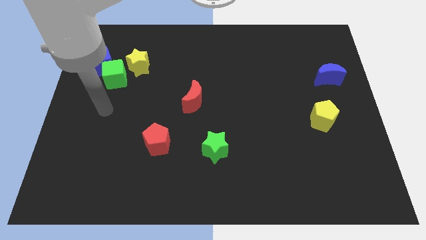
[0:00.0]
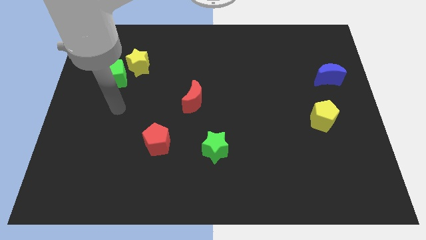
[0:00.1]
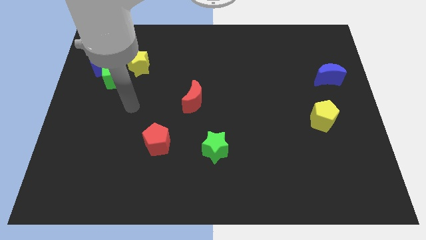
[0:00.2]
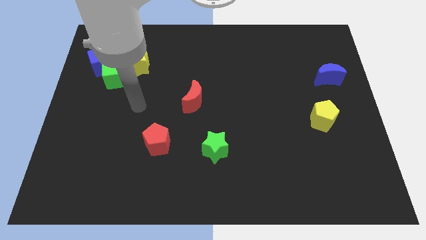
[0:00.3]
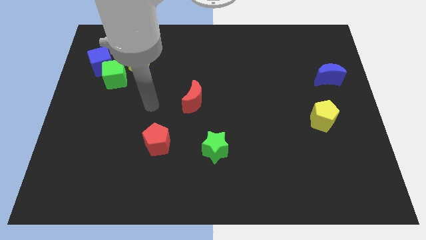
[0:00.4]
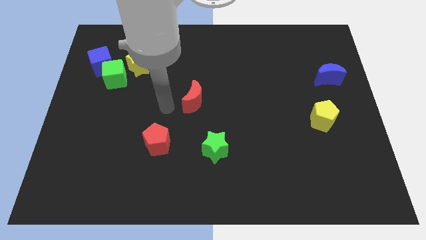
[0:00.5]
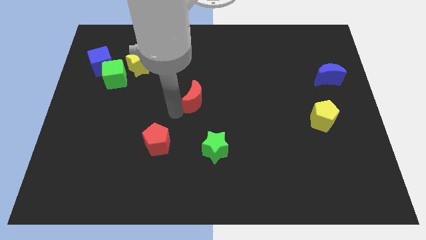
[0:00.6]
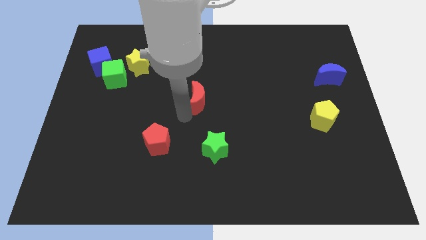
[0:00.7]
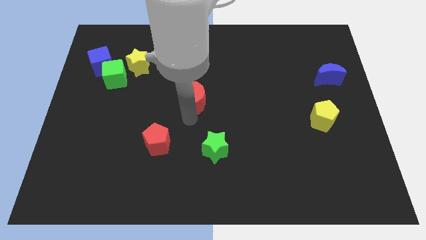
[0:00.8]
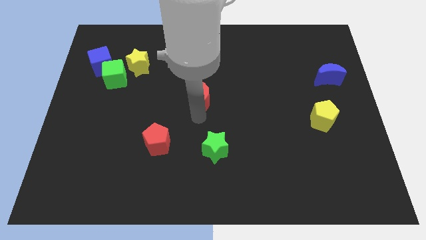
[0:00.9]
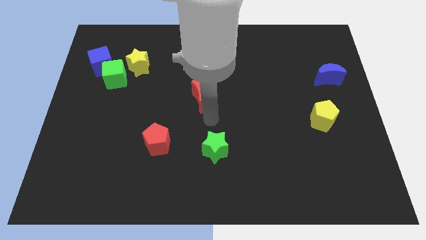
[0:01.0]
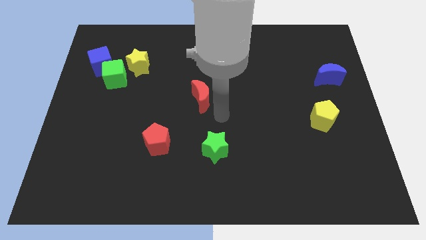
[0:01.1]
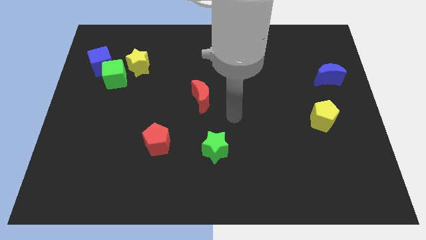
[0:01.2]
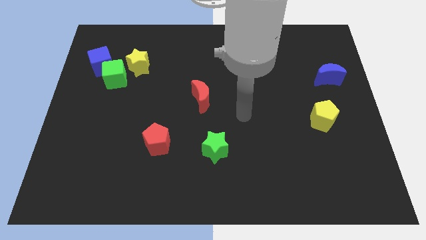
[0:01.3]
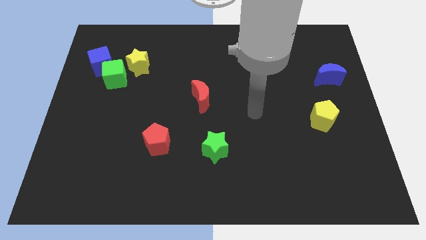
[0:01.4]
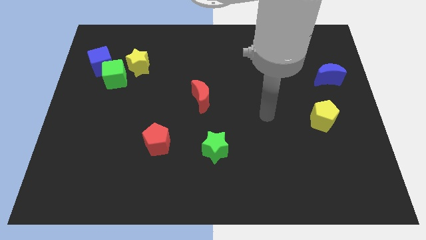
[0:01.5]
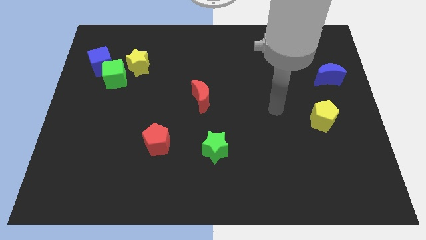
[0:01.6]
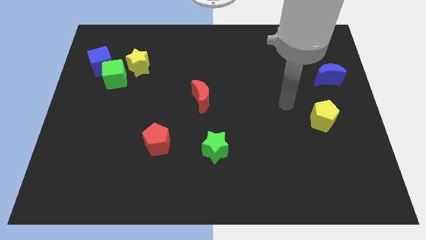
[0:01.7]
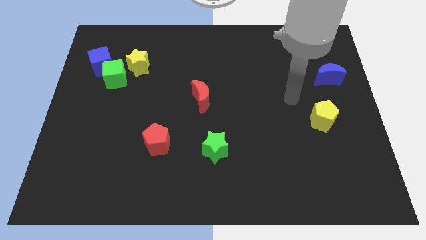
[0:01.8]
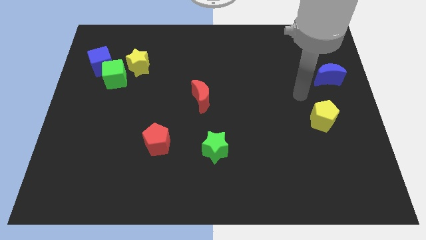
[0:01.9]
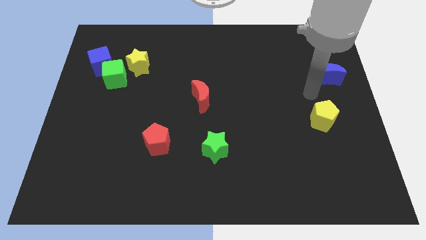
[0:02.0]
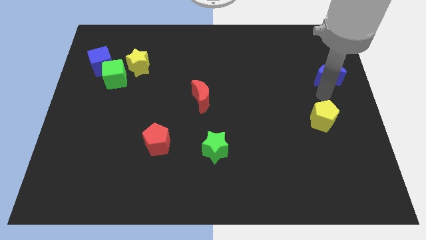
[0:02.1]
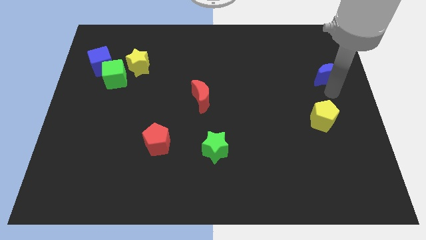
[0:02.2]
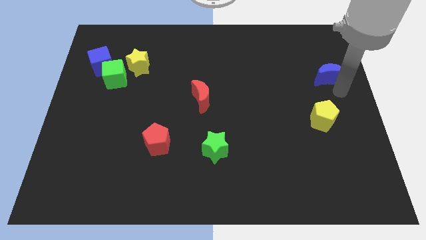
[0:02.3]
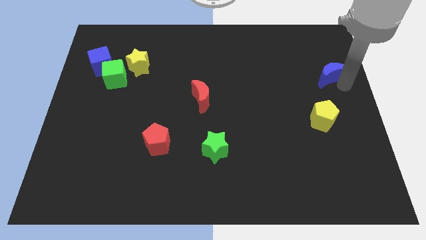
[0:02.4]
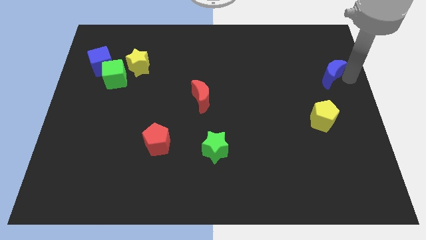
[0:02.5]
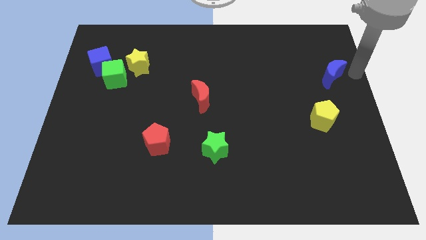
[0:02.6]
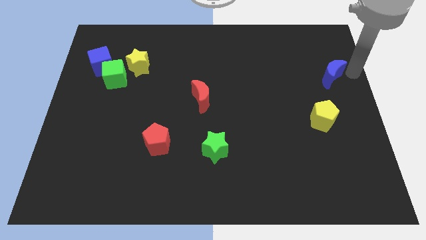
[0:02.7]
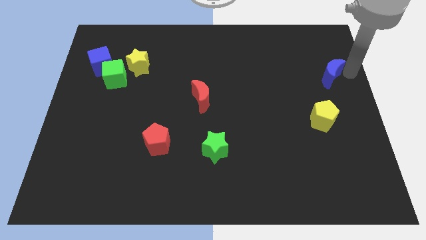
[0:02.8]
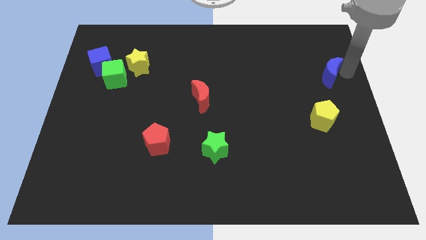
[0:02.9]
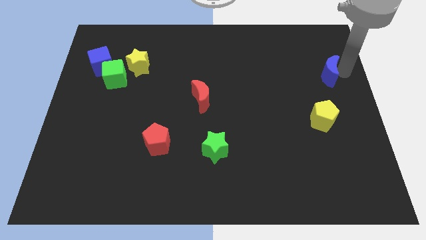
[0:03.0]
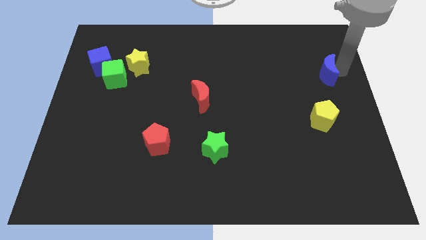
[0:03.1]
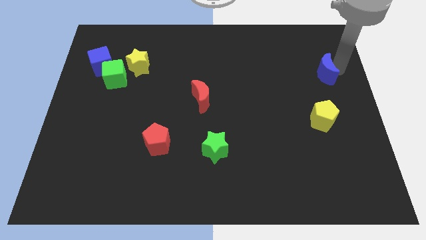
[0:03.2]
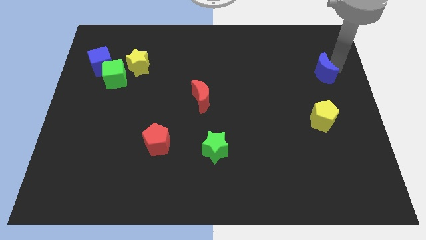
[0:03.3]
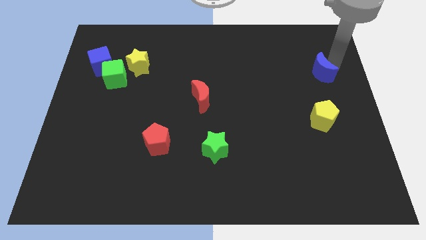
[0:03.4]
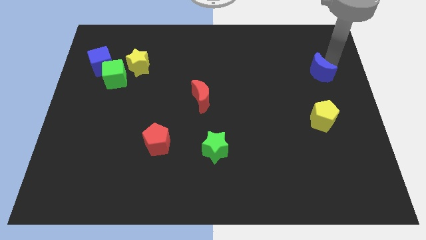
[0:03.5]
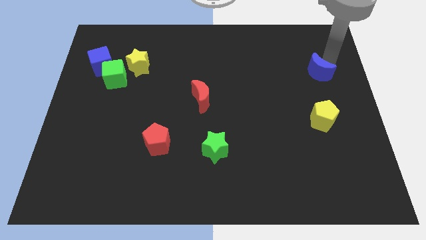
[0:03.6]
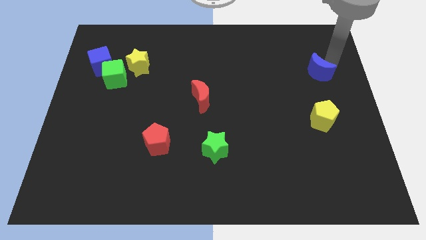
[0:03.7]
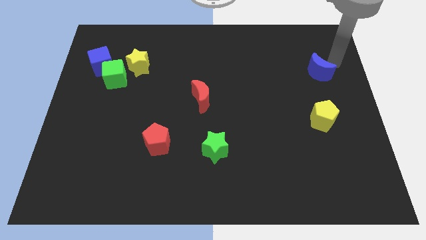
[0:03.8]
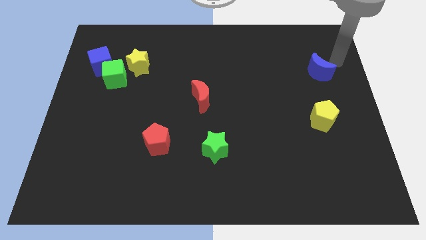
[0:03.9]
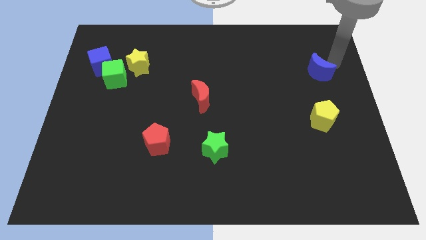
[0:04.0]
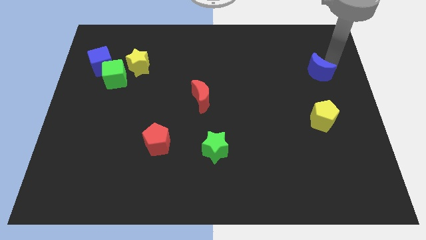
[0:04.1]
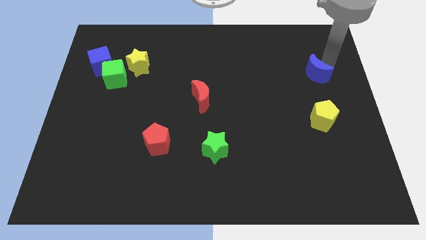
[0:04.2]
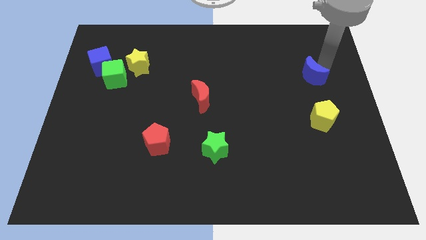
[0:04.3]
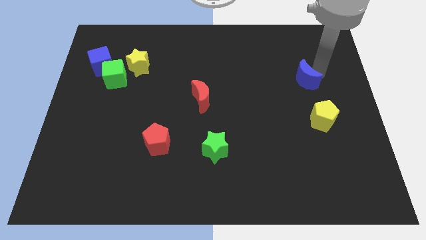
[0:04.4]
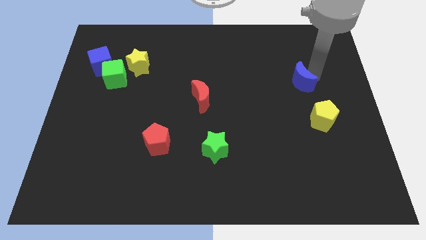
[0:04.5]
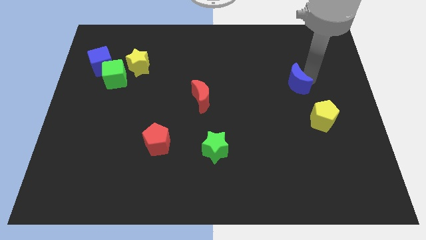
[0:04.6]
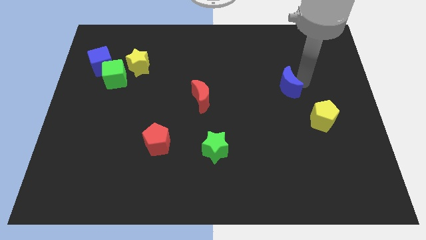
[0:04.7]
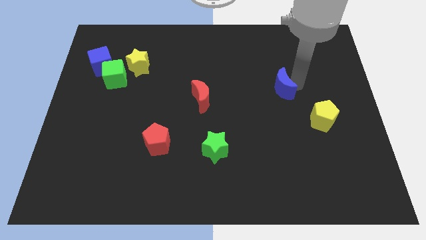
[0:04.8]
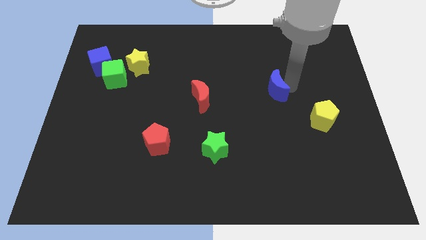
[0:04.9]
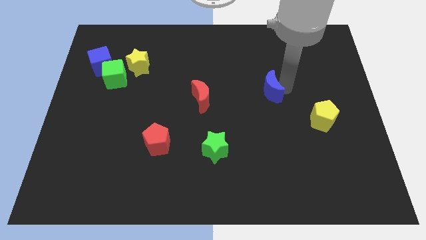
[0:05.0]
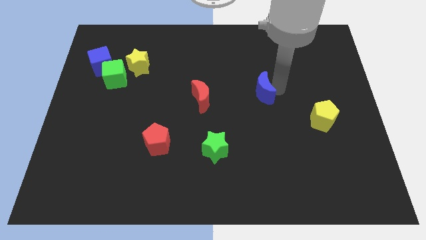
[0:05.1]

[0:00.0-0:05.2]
push the blue moon to the right of the red moon

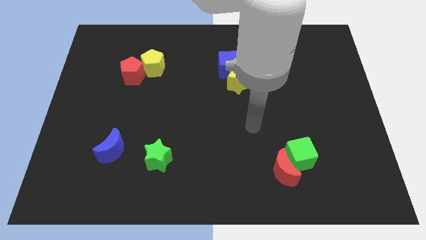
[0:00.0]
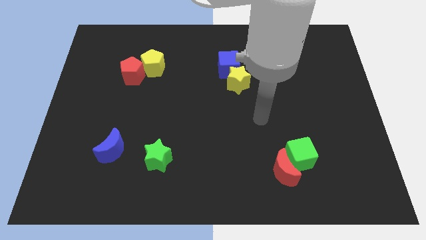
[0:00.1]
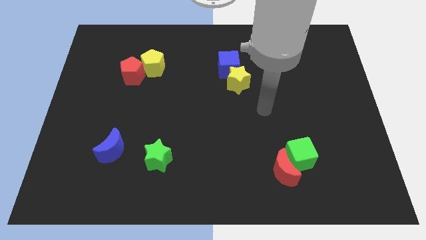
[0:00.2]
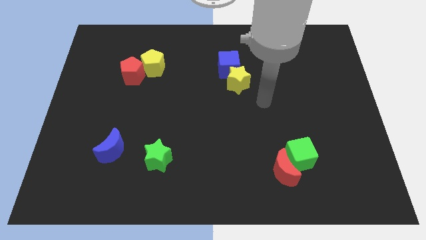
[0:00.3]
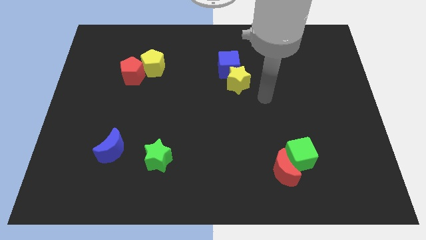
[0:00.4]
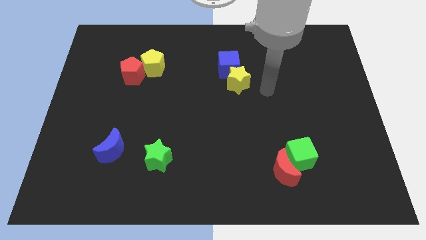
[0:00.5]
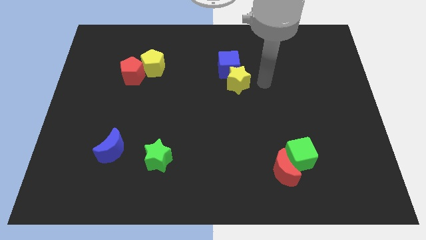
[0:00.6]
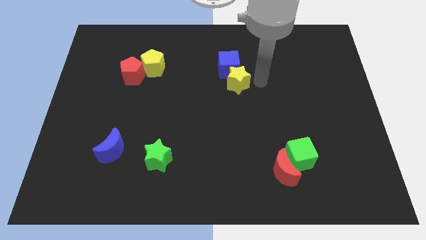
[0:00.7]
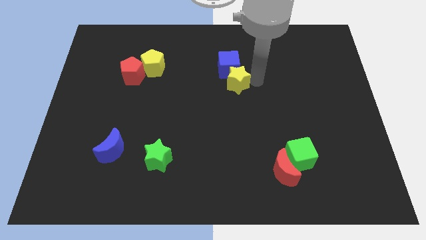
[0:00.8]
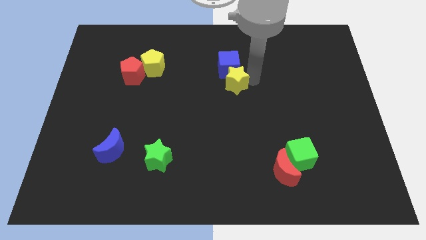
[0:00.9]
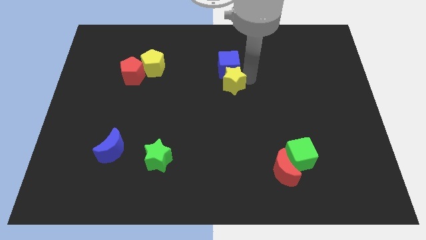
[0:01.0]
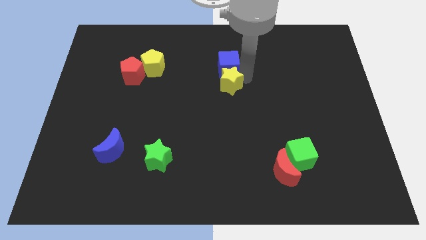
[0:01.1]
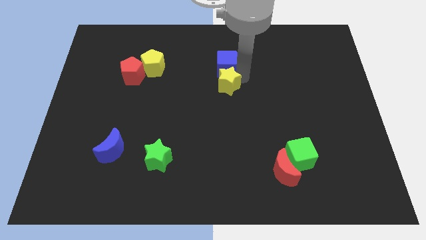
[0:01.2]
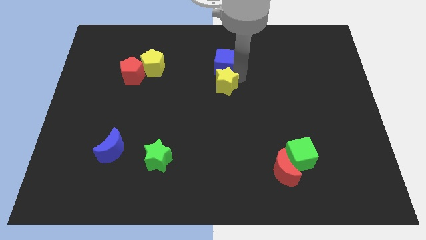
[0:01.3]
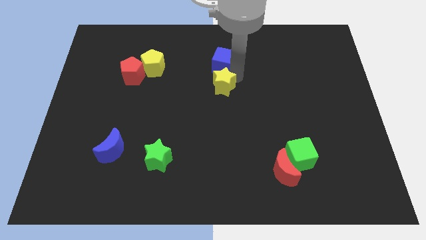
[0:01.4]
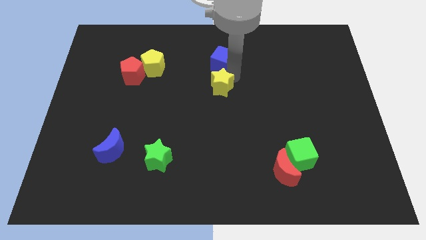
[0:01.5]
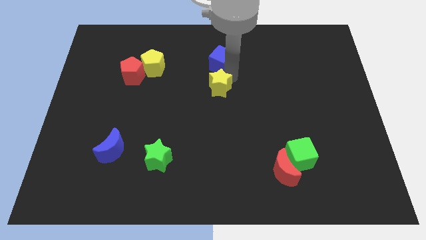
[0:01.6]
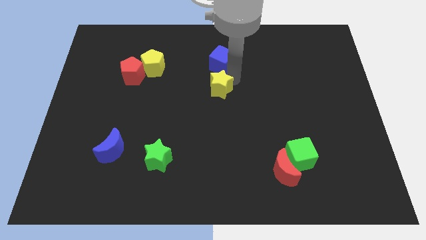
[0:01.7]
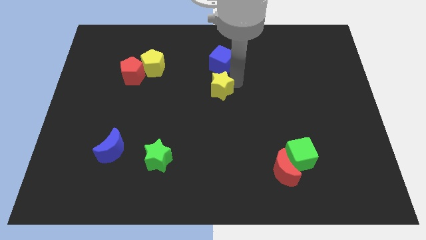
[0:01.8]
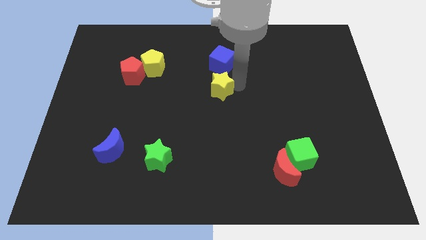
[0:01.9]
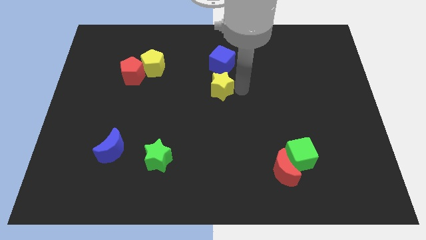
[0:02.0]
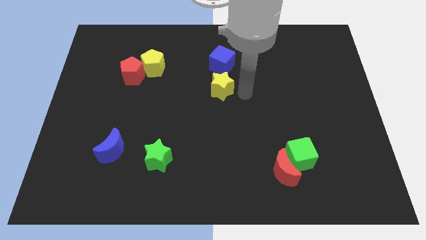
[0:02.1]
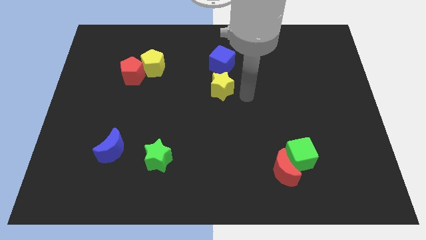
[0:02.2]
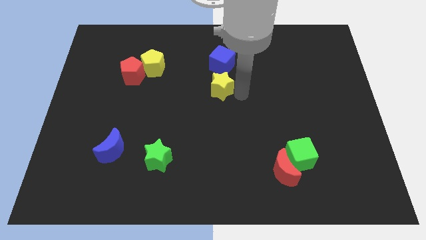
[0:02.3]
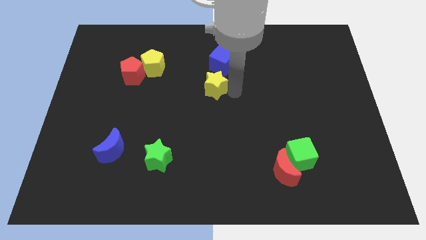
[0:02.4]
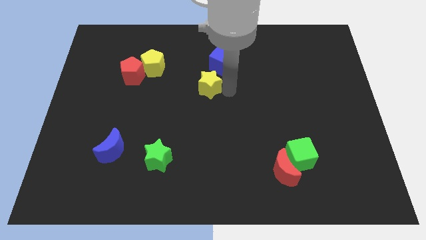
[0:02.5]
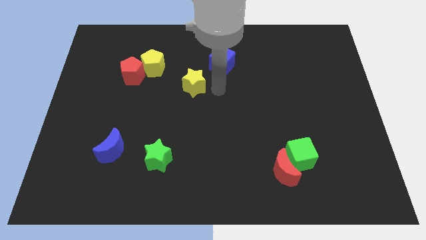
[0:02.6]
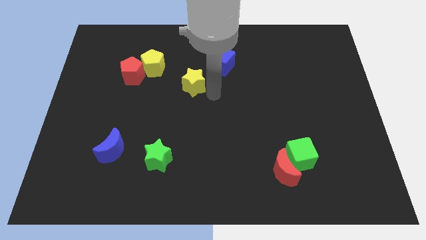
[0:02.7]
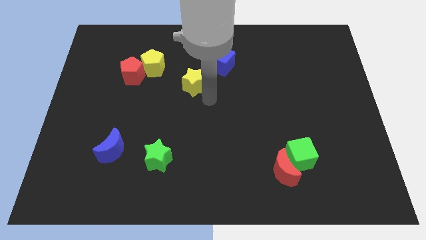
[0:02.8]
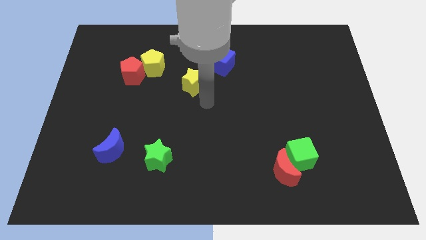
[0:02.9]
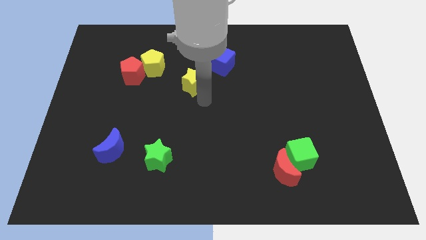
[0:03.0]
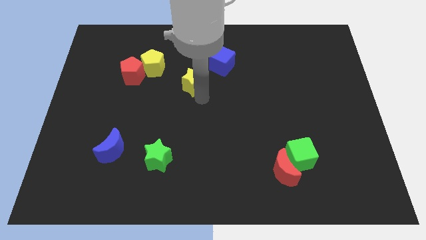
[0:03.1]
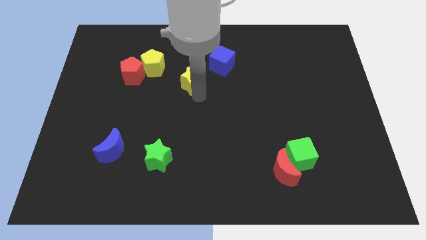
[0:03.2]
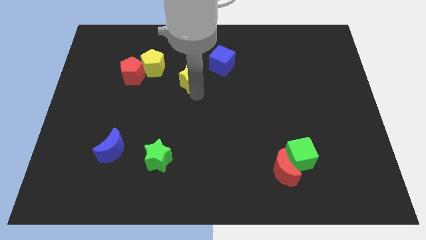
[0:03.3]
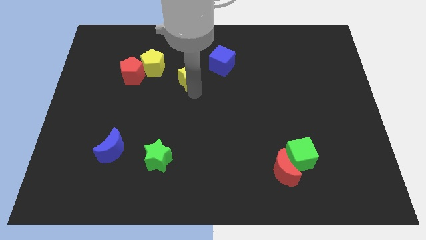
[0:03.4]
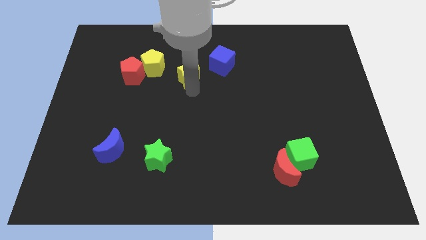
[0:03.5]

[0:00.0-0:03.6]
slide the yellow star just left of the blue cube
